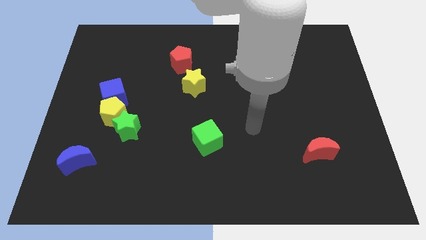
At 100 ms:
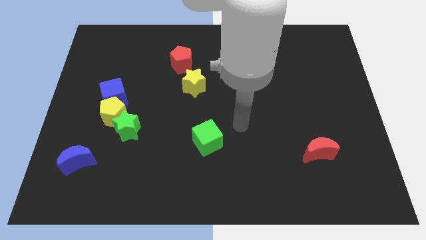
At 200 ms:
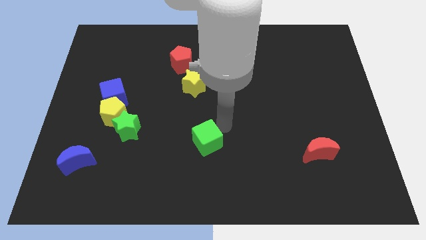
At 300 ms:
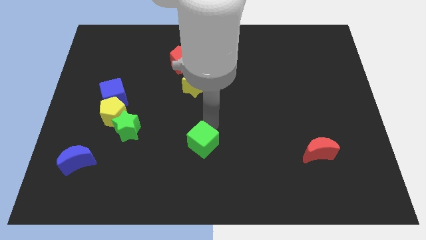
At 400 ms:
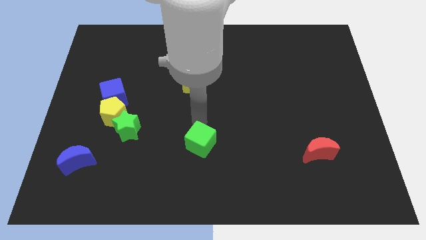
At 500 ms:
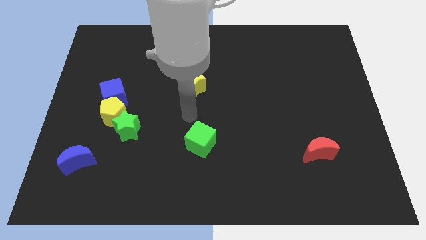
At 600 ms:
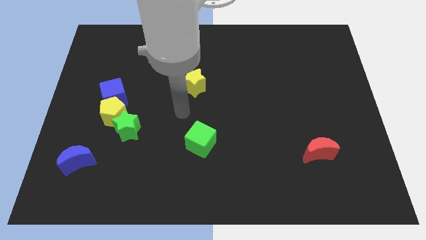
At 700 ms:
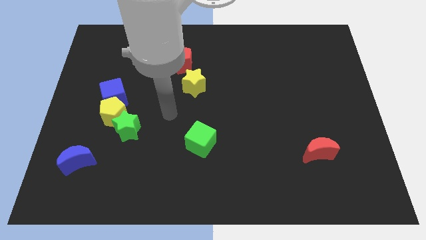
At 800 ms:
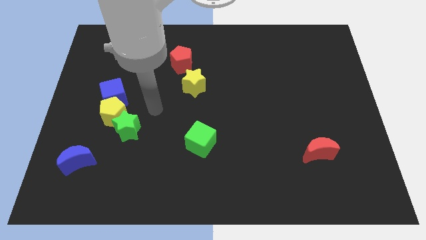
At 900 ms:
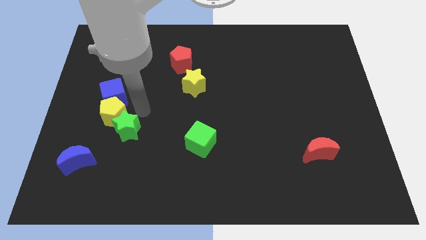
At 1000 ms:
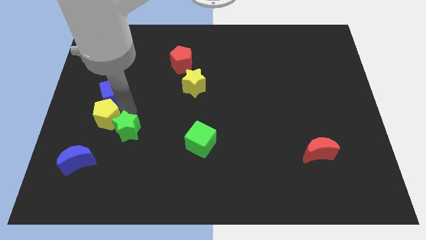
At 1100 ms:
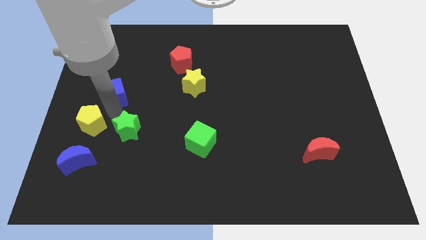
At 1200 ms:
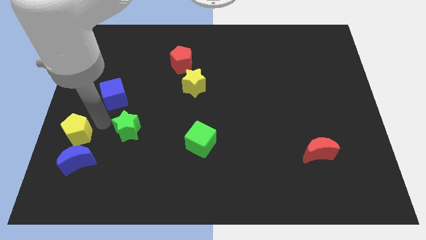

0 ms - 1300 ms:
separate the green star from the yellow pentagon

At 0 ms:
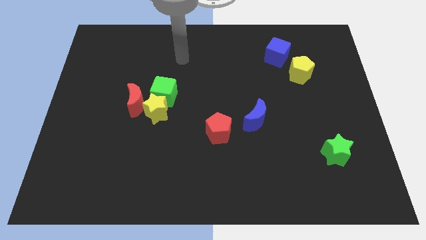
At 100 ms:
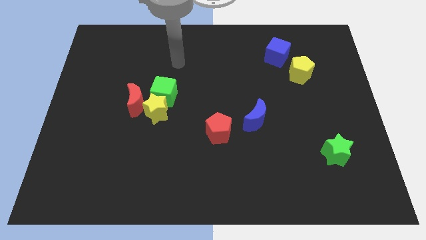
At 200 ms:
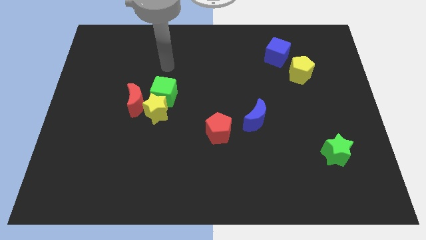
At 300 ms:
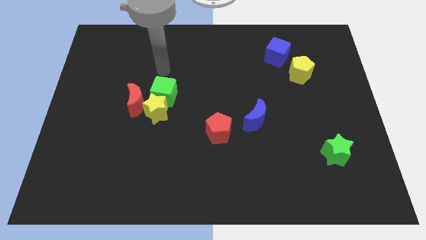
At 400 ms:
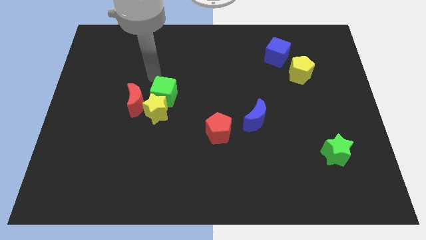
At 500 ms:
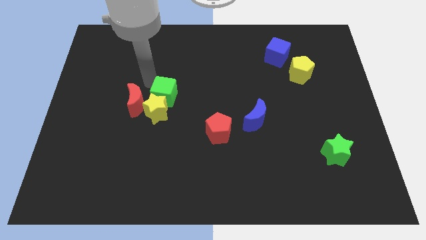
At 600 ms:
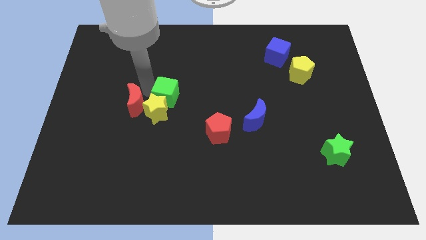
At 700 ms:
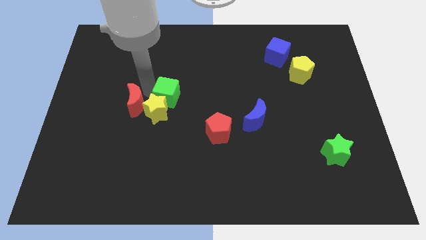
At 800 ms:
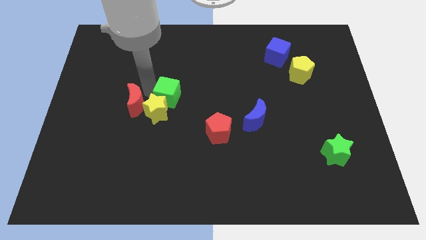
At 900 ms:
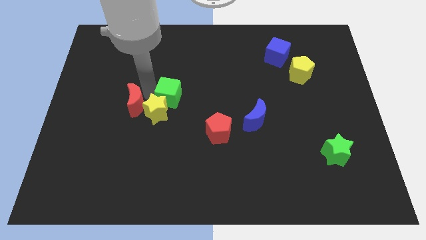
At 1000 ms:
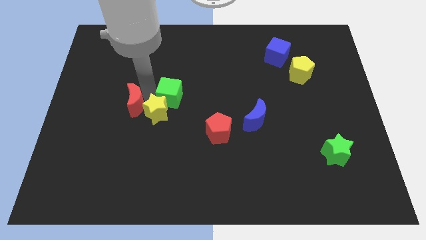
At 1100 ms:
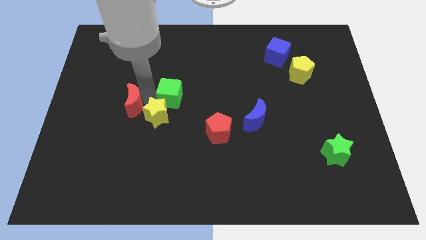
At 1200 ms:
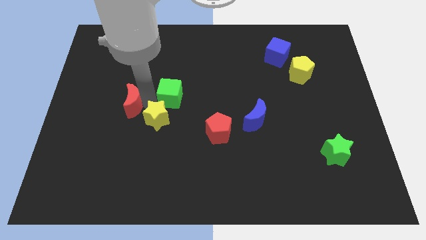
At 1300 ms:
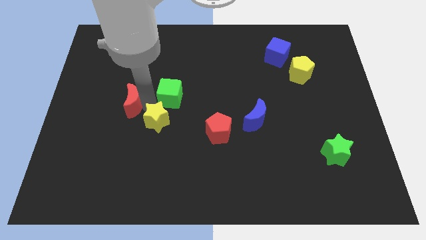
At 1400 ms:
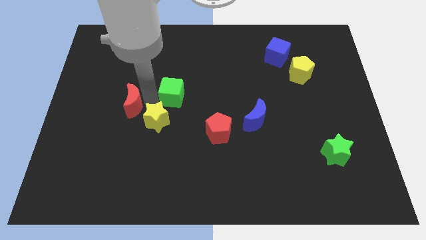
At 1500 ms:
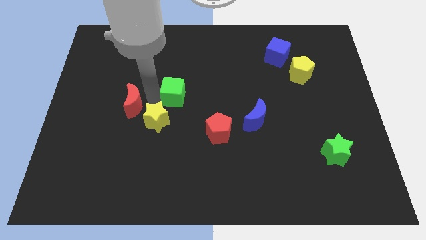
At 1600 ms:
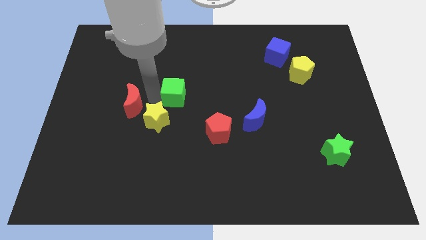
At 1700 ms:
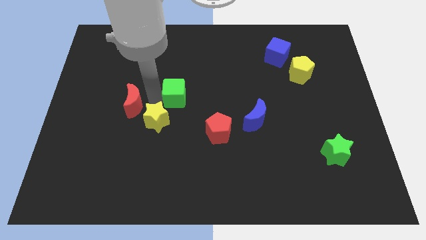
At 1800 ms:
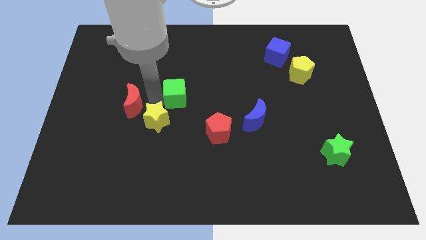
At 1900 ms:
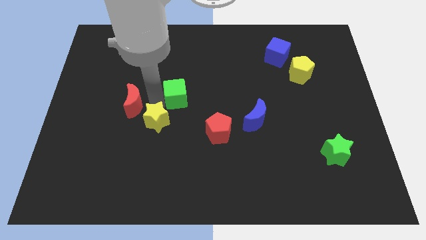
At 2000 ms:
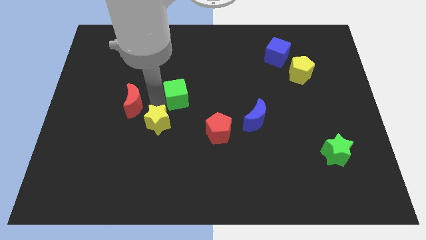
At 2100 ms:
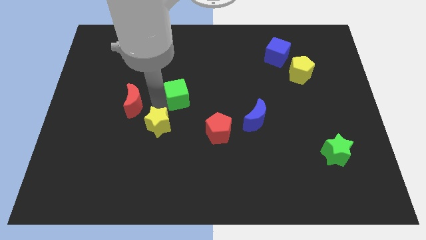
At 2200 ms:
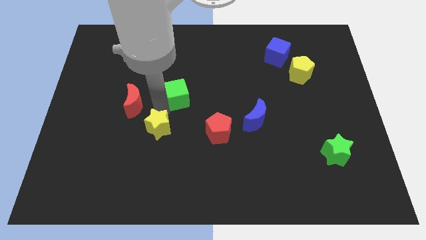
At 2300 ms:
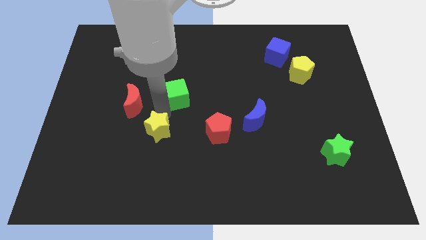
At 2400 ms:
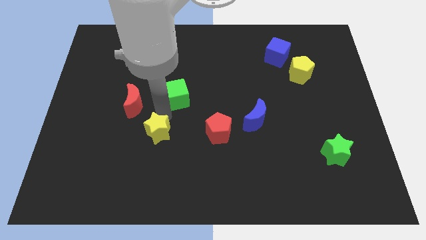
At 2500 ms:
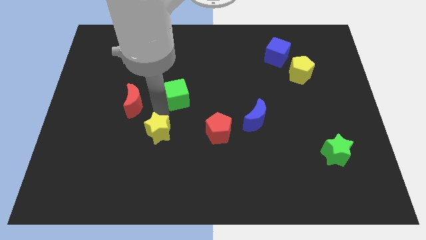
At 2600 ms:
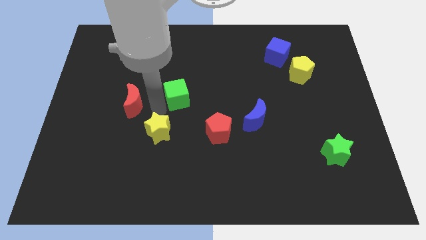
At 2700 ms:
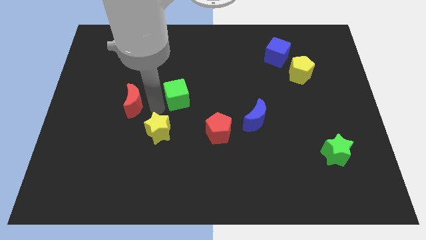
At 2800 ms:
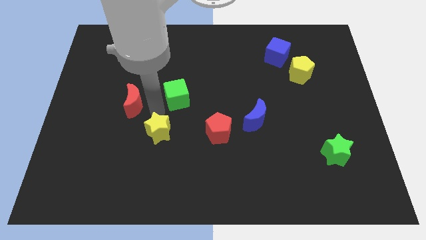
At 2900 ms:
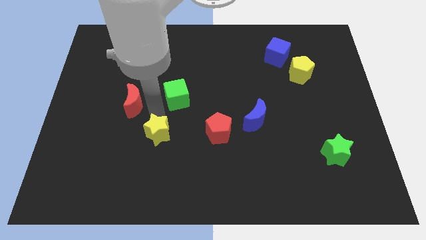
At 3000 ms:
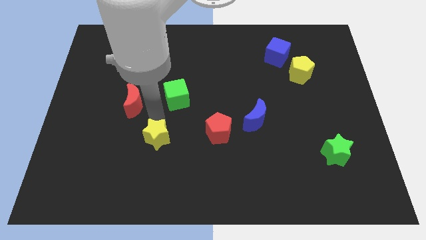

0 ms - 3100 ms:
move the yellow star away from the green cube and red moon

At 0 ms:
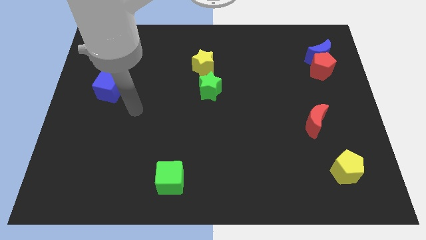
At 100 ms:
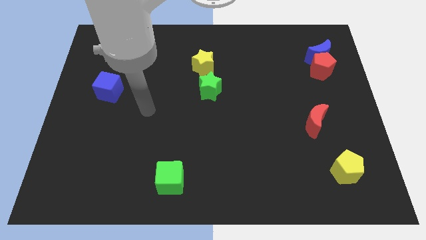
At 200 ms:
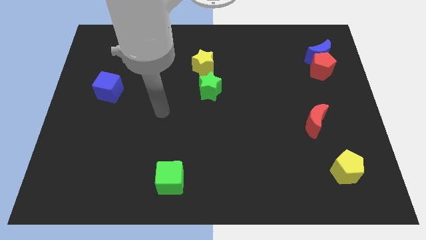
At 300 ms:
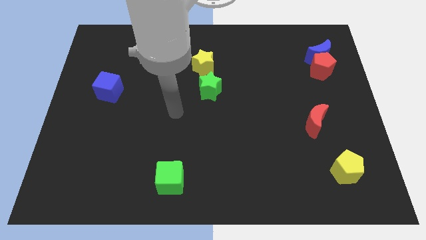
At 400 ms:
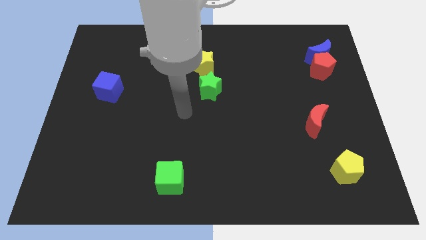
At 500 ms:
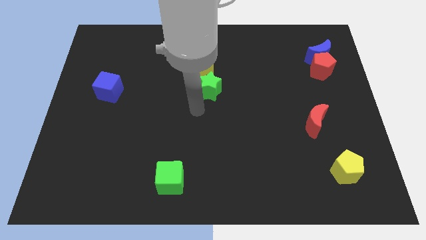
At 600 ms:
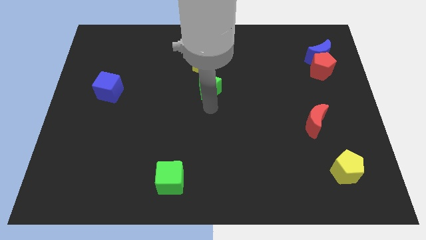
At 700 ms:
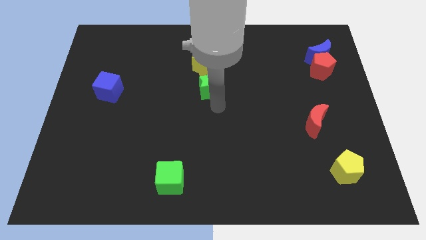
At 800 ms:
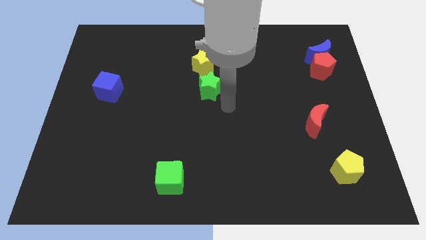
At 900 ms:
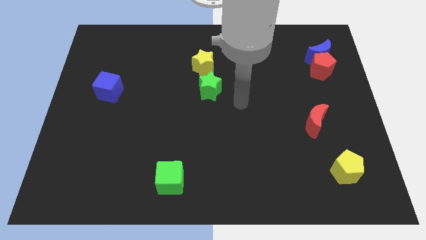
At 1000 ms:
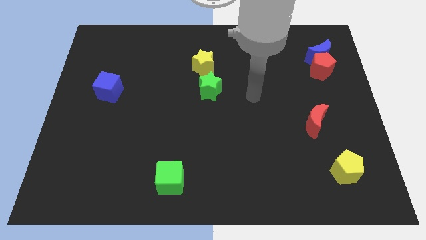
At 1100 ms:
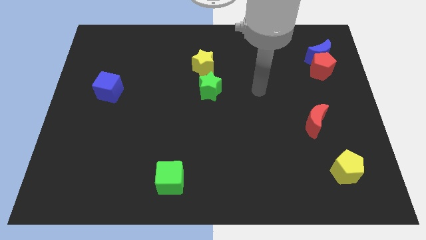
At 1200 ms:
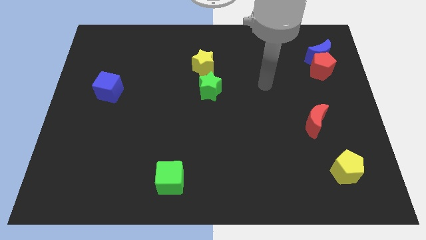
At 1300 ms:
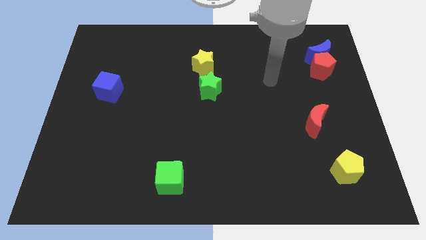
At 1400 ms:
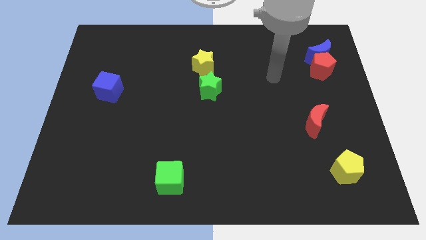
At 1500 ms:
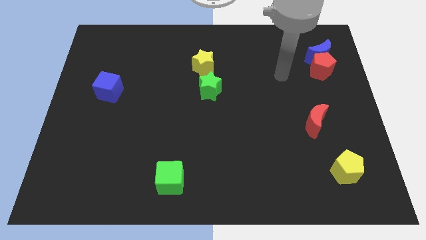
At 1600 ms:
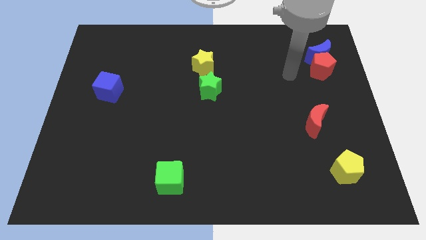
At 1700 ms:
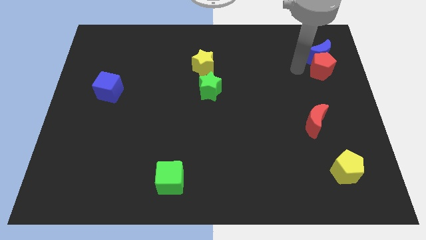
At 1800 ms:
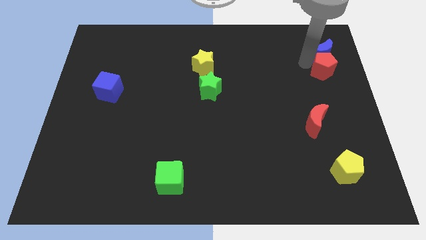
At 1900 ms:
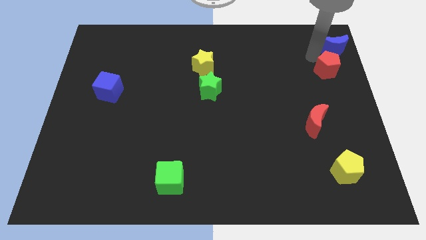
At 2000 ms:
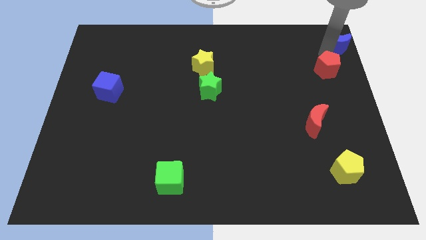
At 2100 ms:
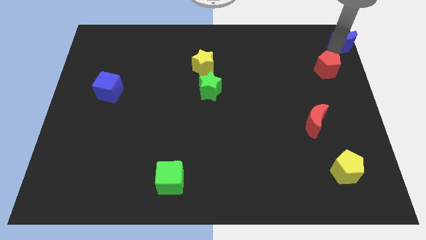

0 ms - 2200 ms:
pull the red pentagon apart from the blue moon

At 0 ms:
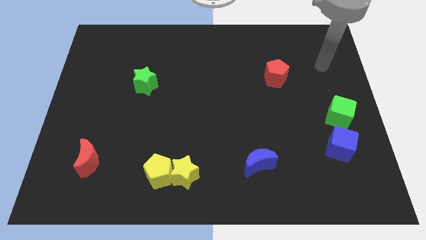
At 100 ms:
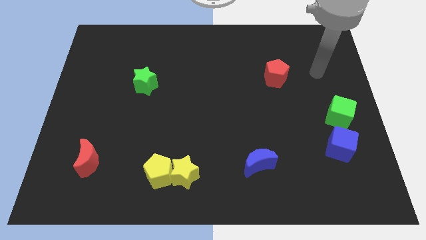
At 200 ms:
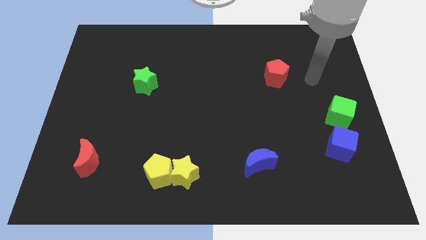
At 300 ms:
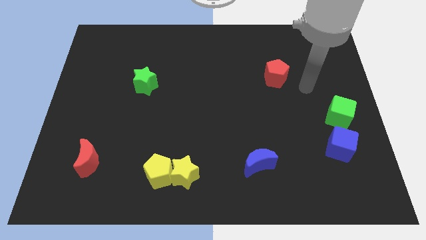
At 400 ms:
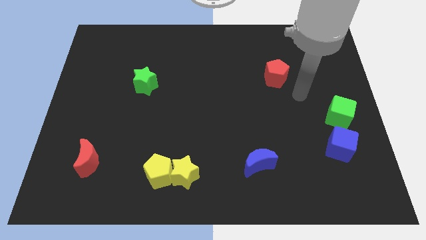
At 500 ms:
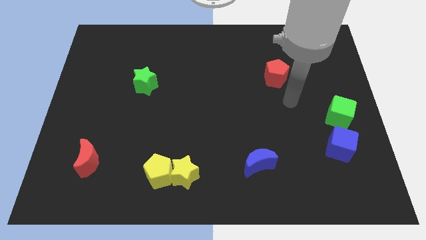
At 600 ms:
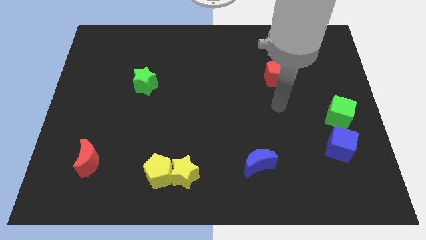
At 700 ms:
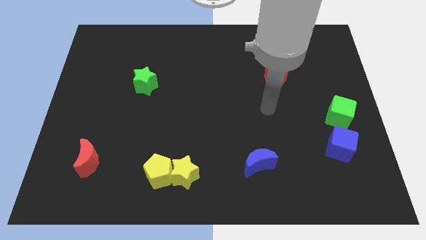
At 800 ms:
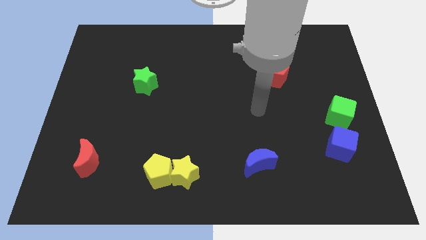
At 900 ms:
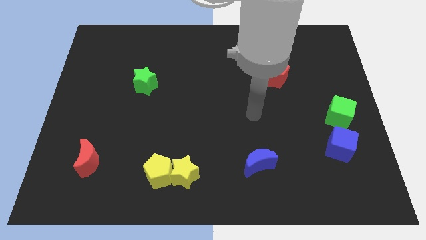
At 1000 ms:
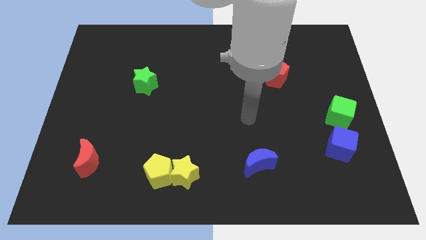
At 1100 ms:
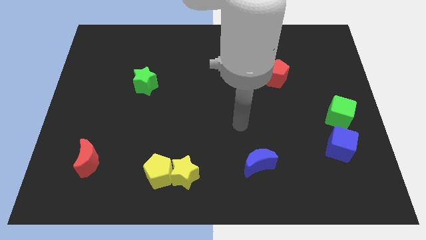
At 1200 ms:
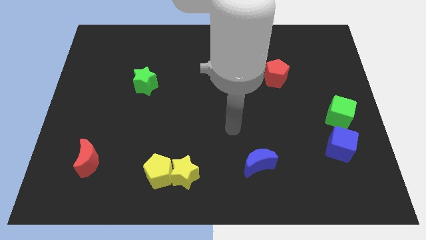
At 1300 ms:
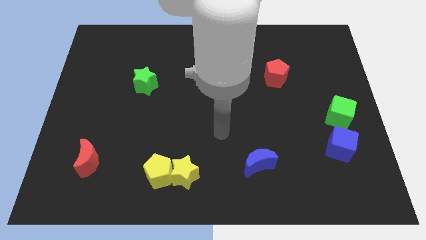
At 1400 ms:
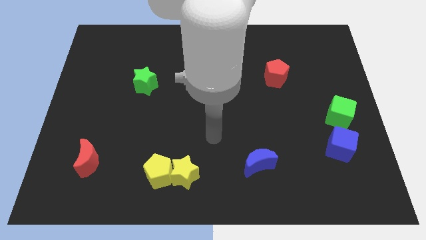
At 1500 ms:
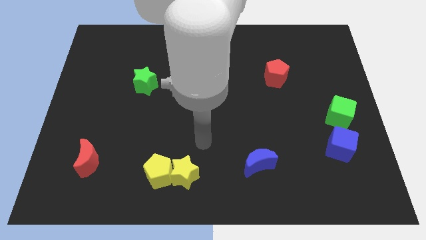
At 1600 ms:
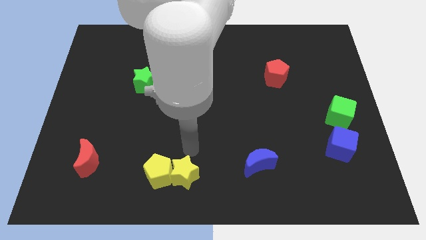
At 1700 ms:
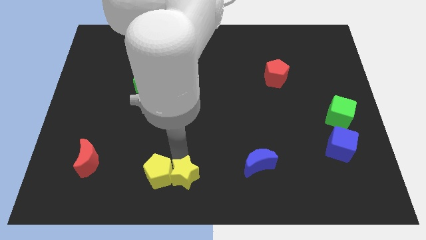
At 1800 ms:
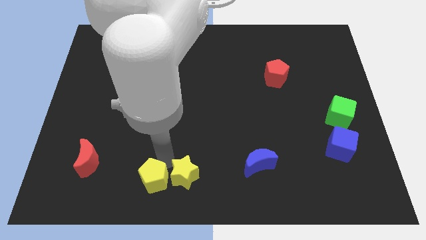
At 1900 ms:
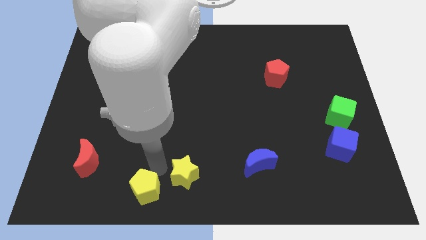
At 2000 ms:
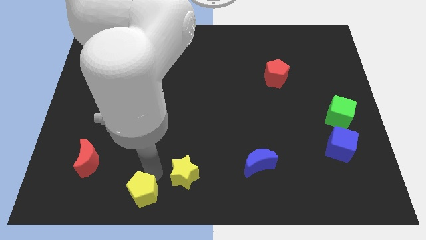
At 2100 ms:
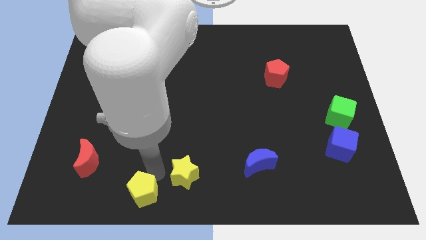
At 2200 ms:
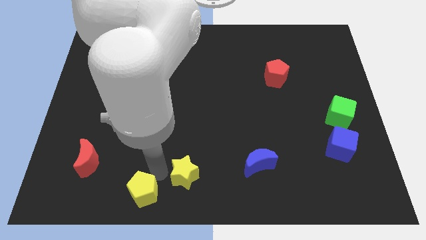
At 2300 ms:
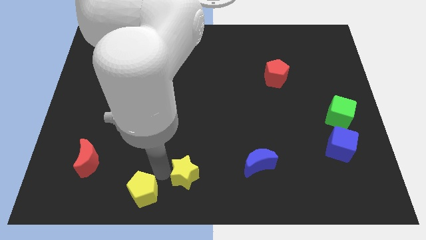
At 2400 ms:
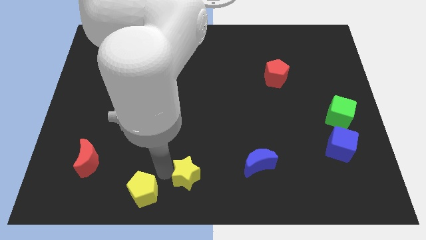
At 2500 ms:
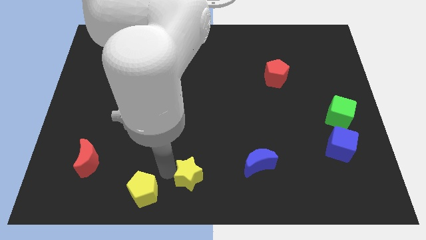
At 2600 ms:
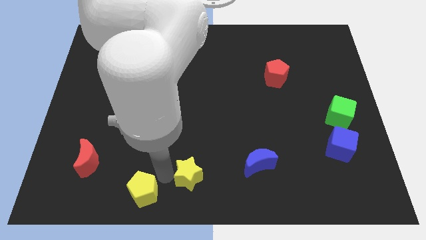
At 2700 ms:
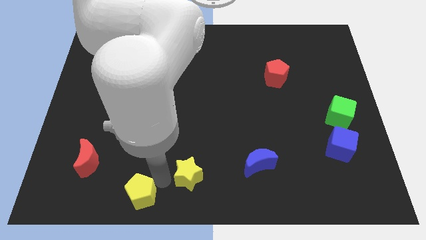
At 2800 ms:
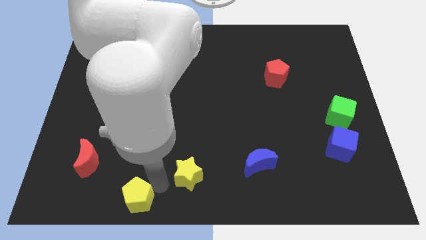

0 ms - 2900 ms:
move the yellow star away from the yellow pentagon

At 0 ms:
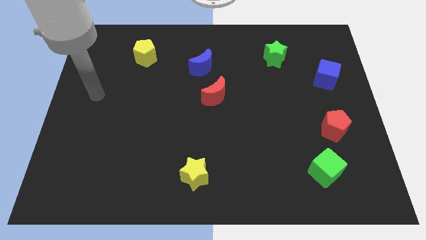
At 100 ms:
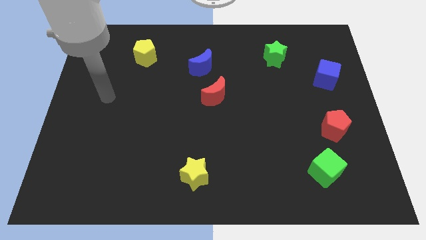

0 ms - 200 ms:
separate the red moon from the blue moon
